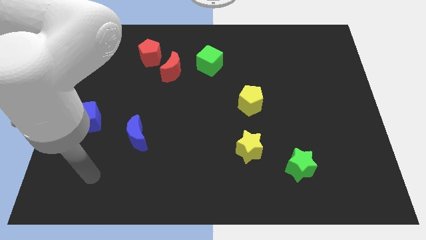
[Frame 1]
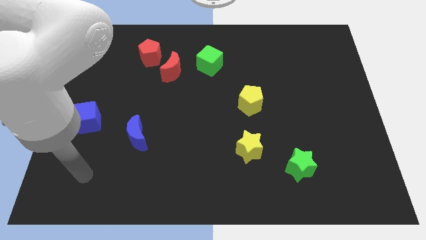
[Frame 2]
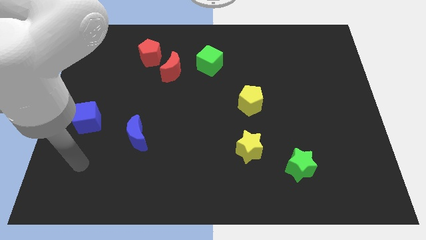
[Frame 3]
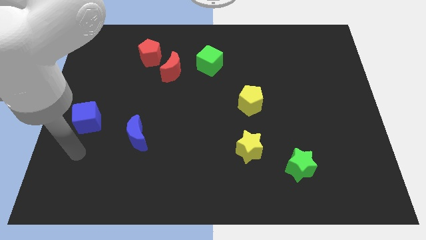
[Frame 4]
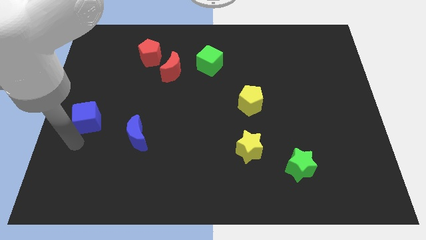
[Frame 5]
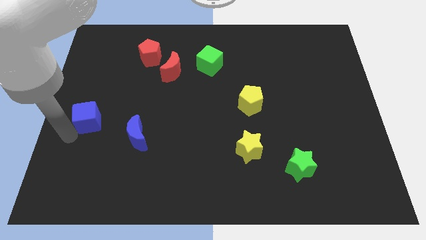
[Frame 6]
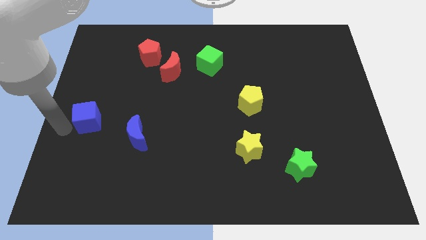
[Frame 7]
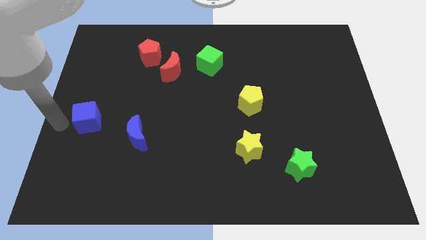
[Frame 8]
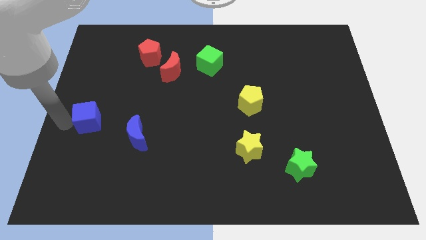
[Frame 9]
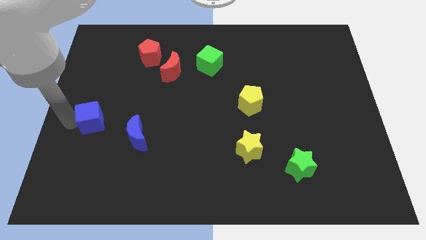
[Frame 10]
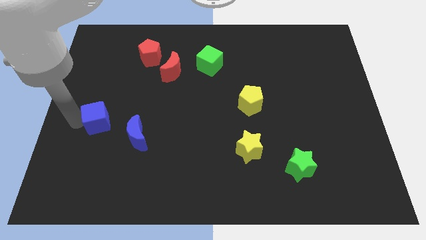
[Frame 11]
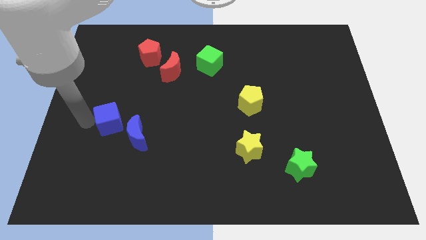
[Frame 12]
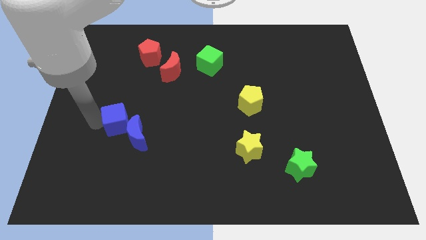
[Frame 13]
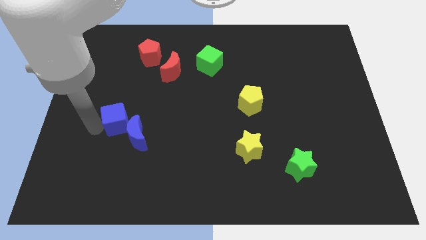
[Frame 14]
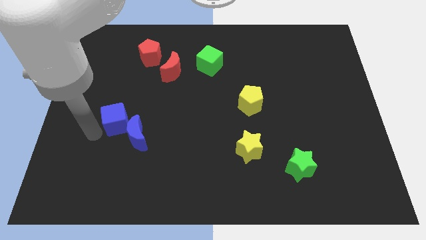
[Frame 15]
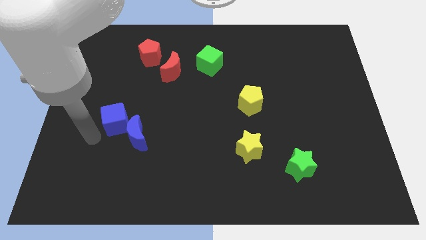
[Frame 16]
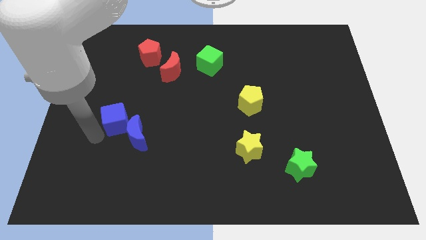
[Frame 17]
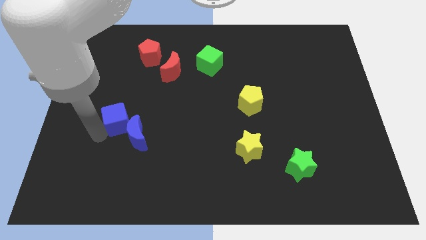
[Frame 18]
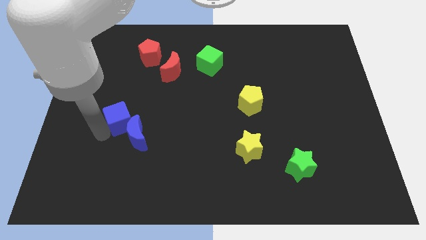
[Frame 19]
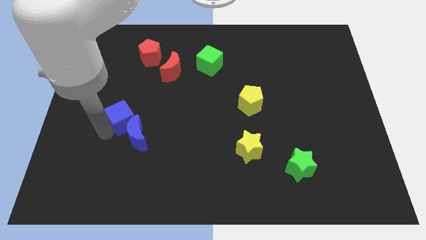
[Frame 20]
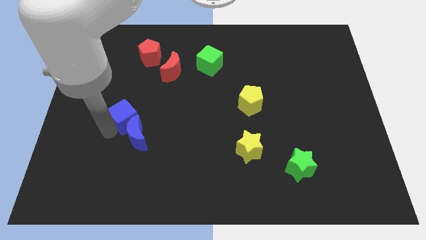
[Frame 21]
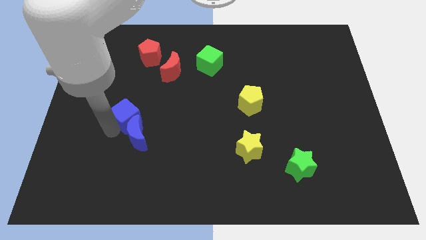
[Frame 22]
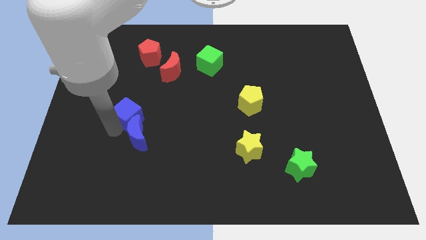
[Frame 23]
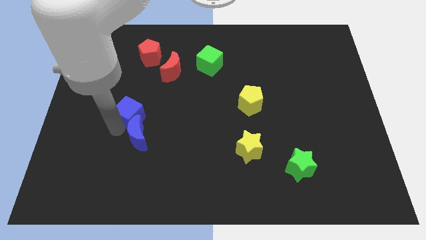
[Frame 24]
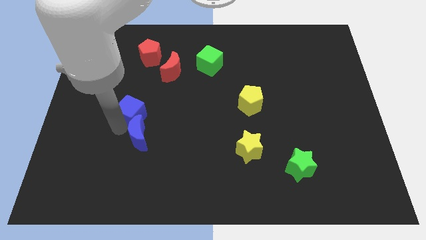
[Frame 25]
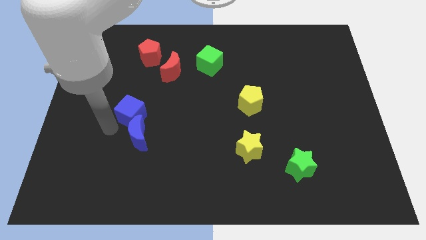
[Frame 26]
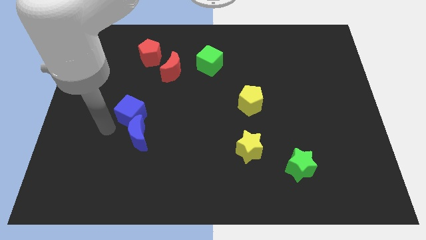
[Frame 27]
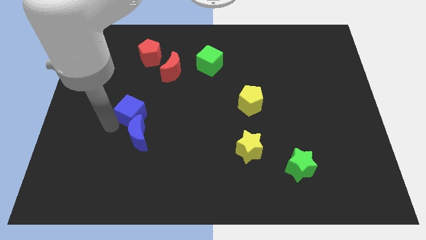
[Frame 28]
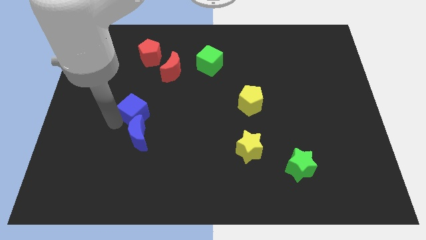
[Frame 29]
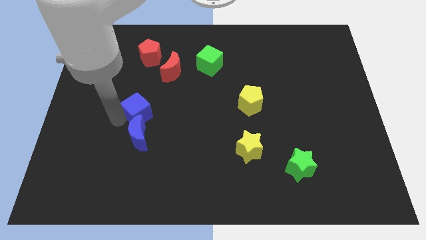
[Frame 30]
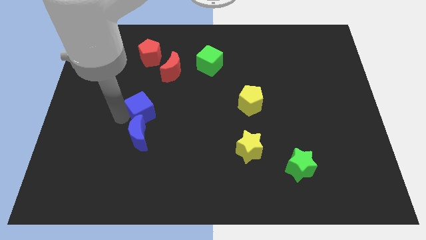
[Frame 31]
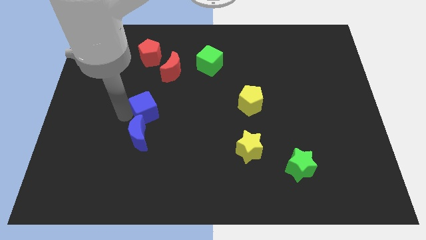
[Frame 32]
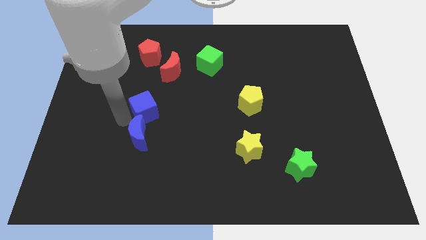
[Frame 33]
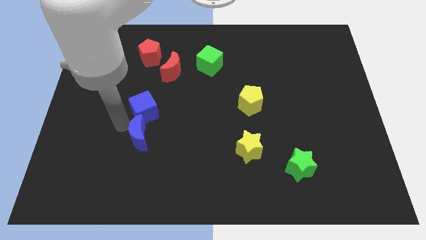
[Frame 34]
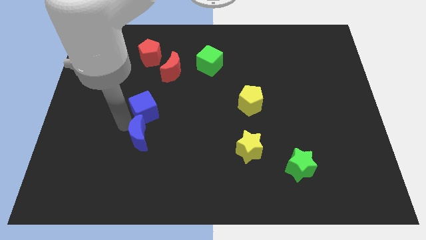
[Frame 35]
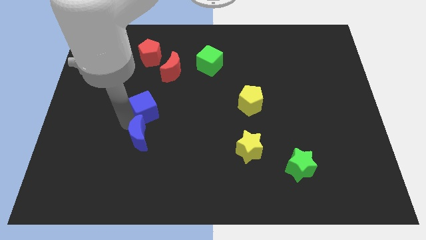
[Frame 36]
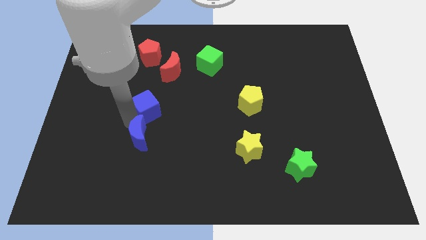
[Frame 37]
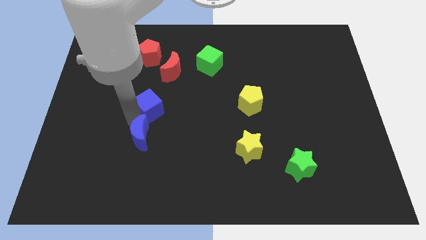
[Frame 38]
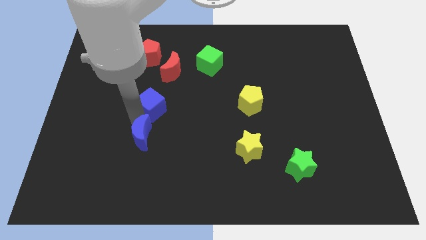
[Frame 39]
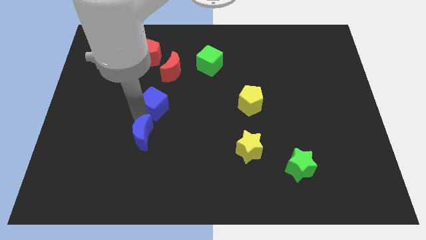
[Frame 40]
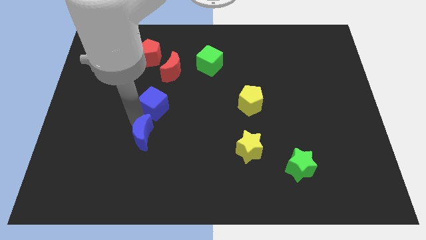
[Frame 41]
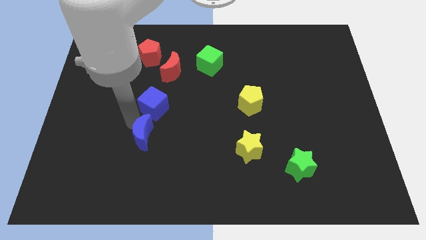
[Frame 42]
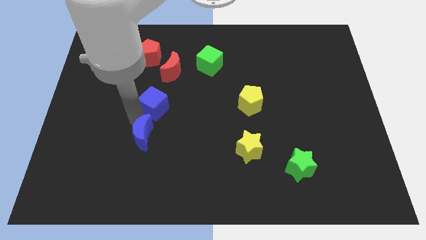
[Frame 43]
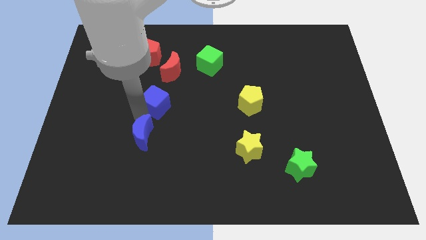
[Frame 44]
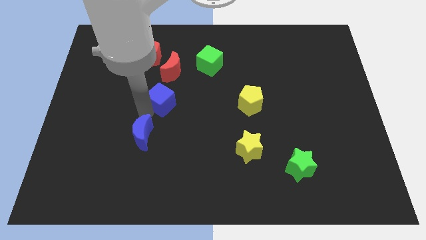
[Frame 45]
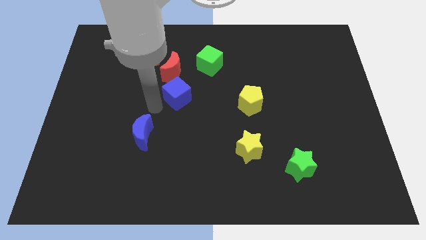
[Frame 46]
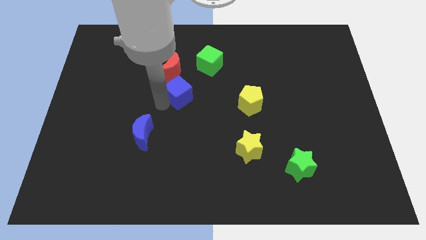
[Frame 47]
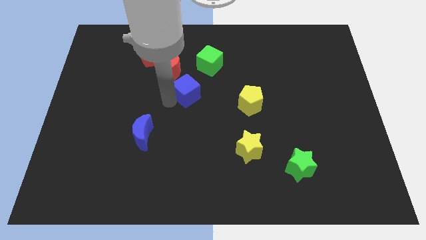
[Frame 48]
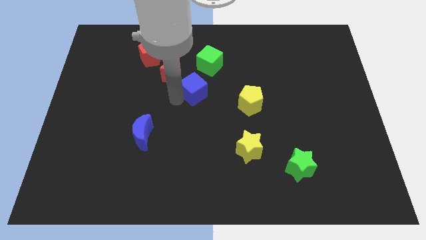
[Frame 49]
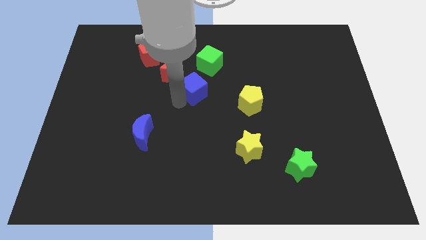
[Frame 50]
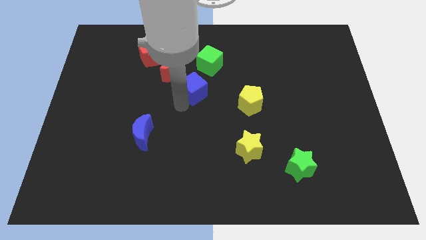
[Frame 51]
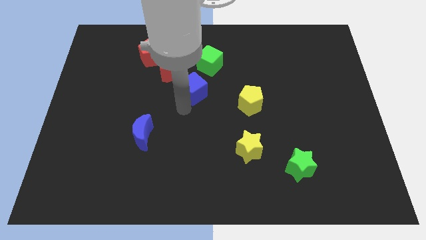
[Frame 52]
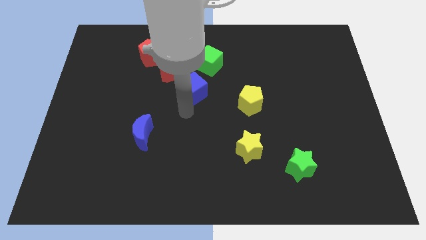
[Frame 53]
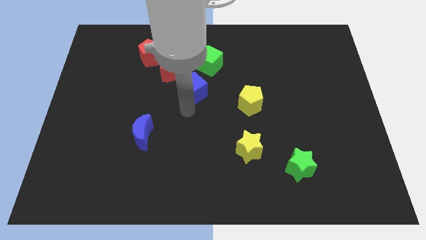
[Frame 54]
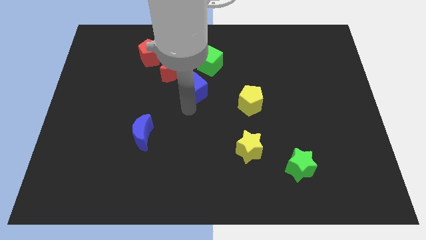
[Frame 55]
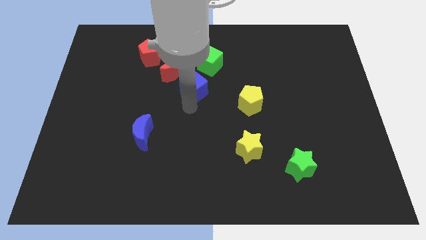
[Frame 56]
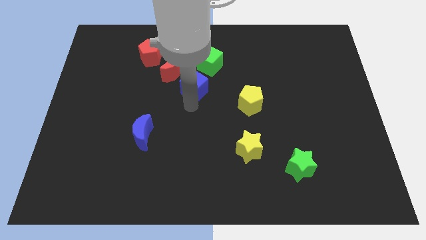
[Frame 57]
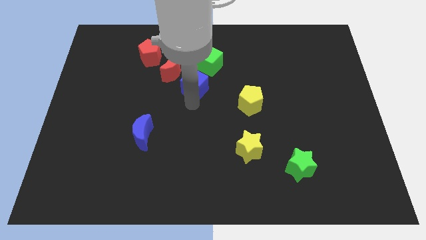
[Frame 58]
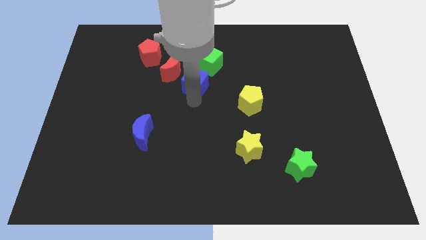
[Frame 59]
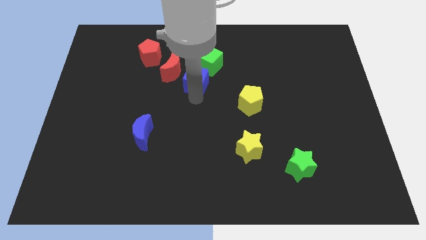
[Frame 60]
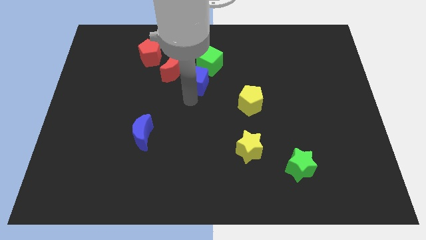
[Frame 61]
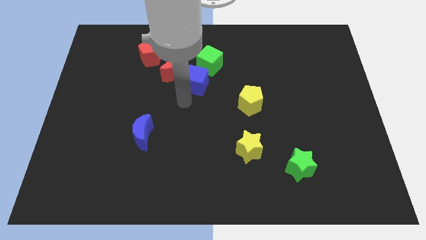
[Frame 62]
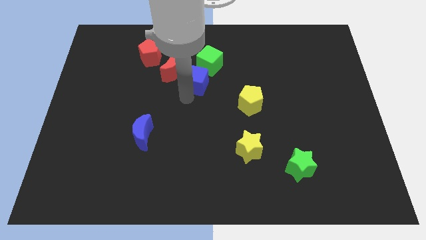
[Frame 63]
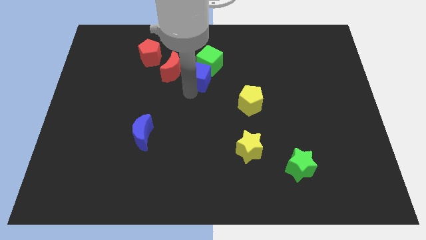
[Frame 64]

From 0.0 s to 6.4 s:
move the blue cube next to the green cube

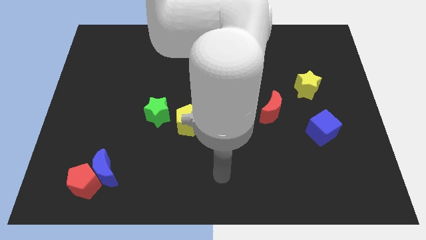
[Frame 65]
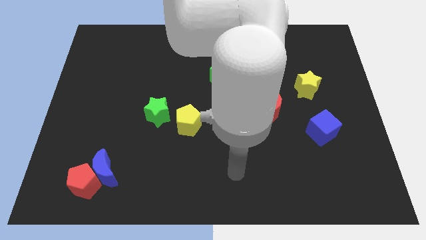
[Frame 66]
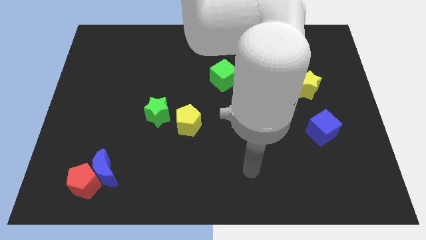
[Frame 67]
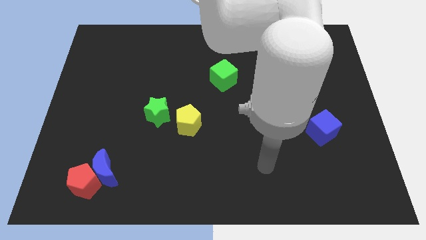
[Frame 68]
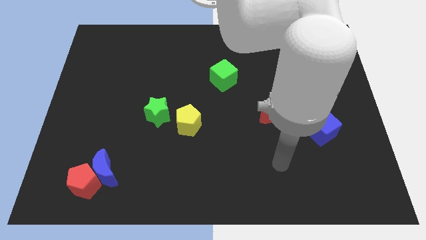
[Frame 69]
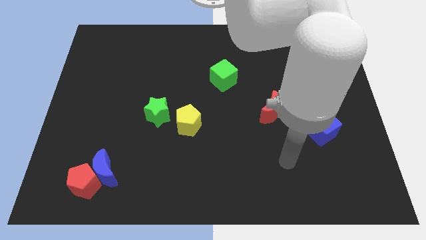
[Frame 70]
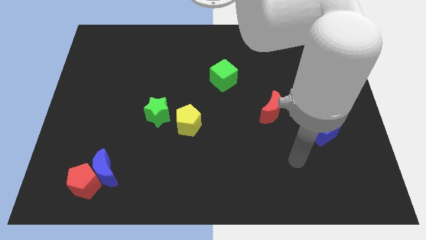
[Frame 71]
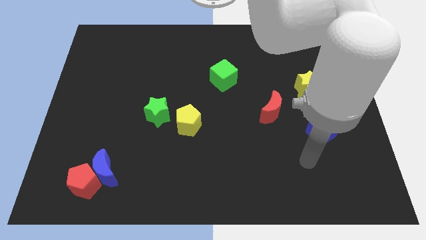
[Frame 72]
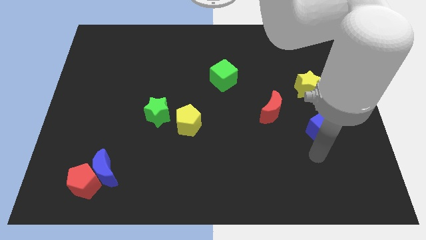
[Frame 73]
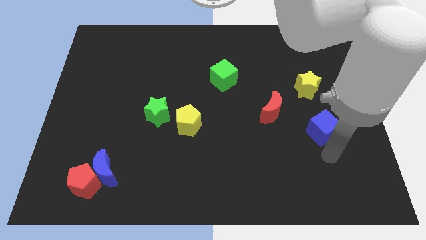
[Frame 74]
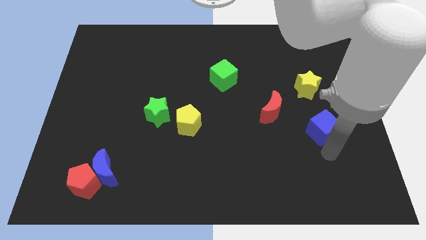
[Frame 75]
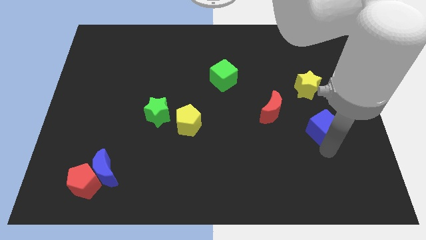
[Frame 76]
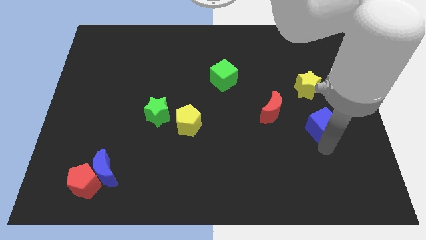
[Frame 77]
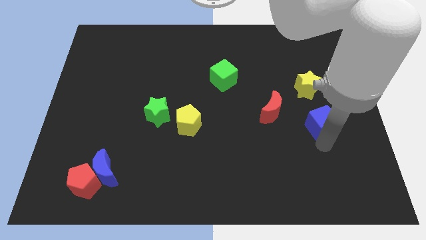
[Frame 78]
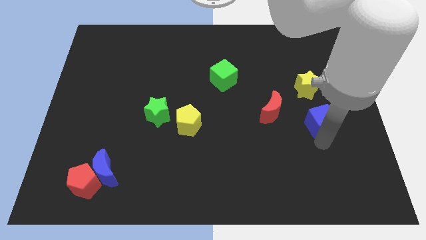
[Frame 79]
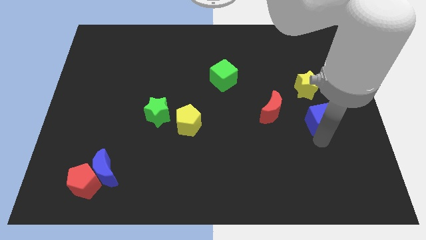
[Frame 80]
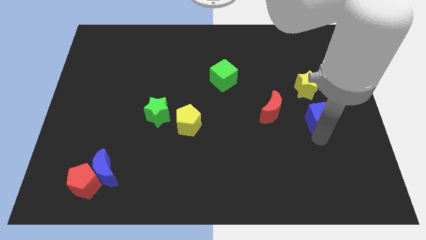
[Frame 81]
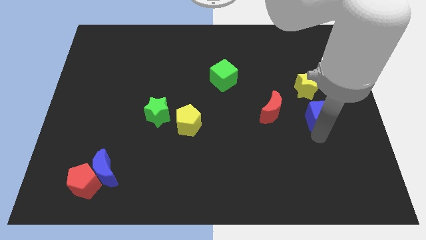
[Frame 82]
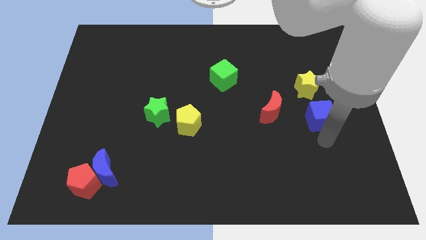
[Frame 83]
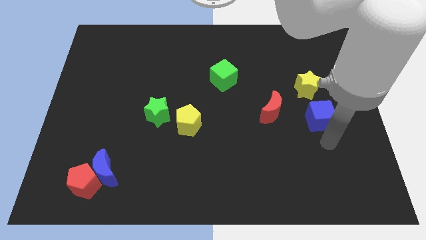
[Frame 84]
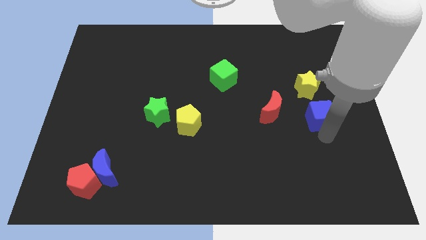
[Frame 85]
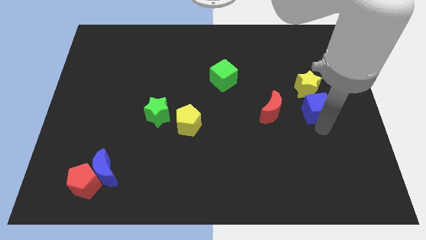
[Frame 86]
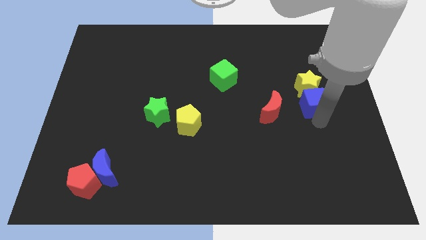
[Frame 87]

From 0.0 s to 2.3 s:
move the blue cube towards the yellow star
